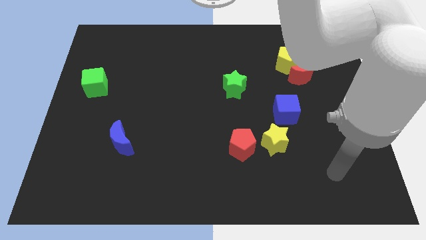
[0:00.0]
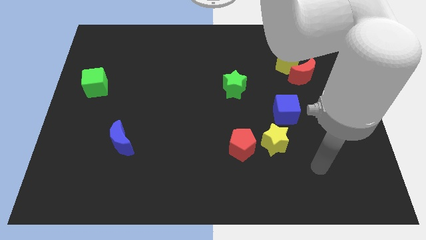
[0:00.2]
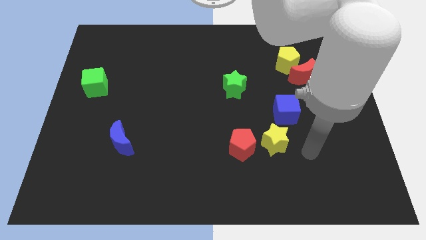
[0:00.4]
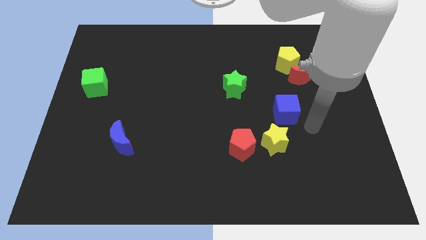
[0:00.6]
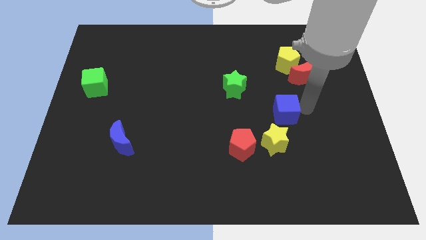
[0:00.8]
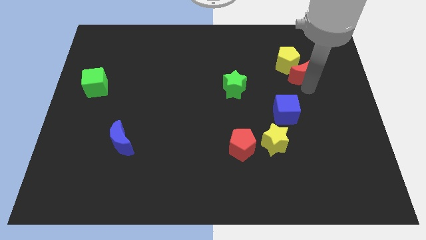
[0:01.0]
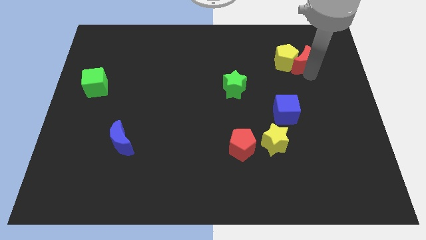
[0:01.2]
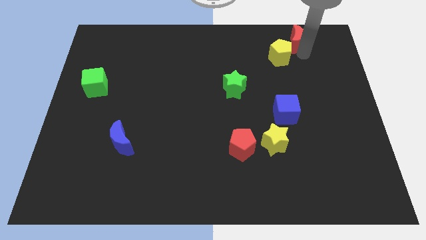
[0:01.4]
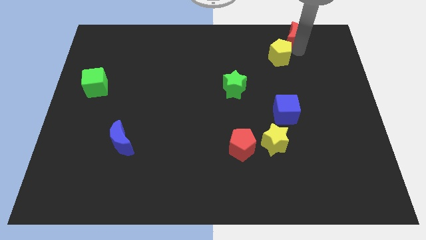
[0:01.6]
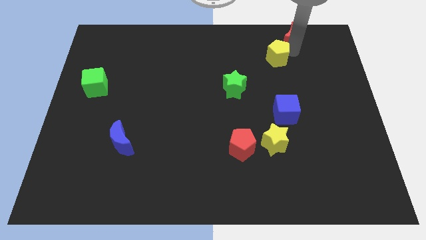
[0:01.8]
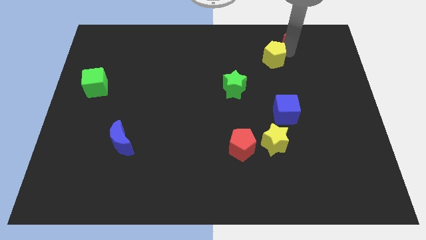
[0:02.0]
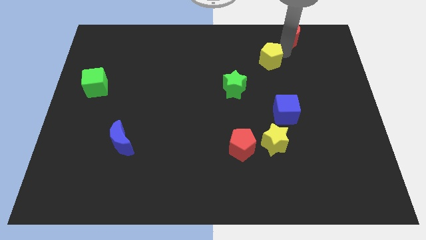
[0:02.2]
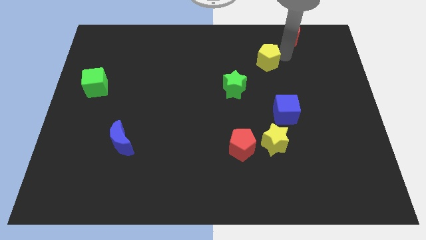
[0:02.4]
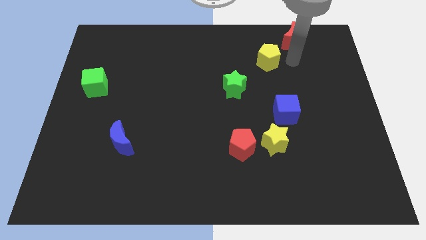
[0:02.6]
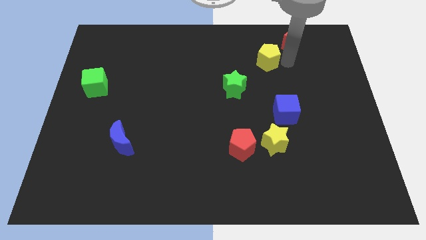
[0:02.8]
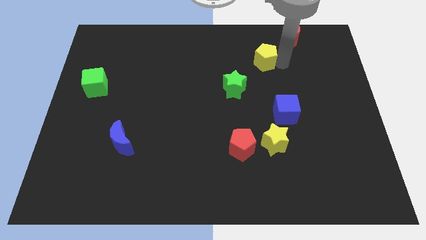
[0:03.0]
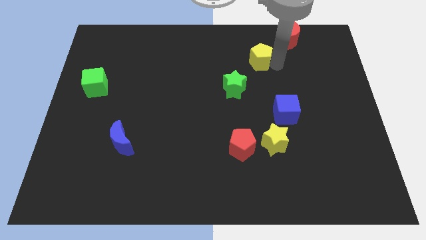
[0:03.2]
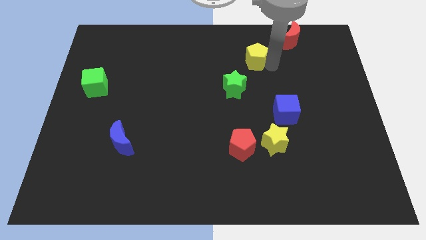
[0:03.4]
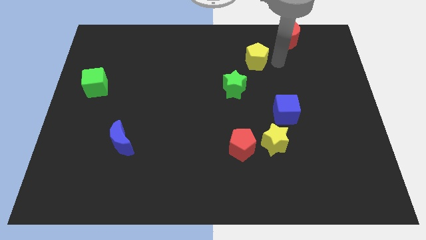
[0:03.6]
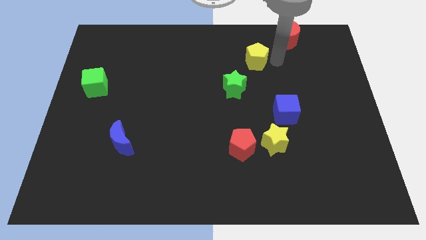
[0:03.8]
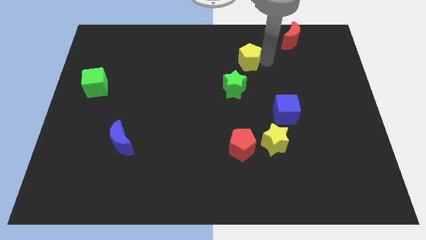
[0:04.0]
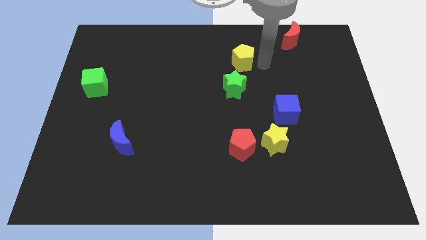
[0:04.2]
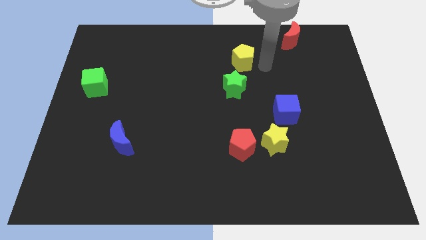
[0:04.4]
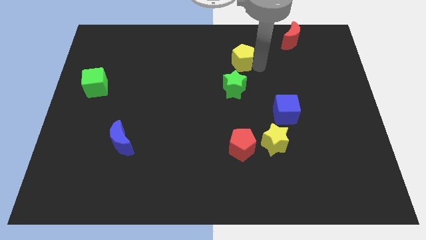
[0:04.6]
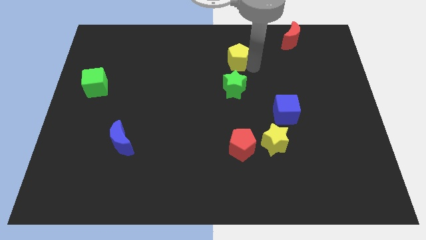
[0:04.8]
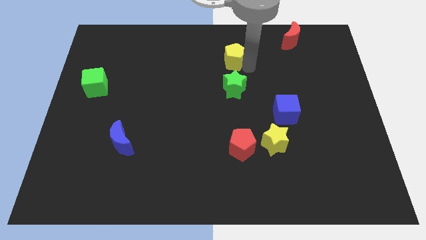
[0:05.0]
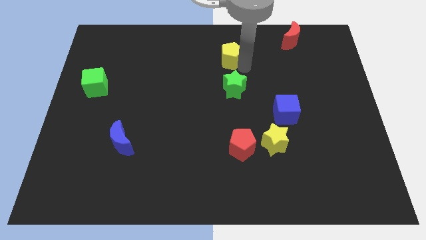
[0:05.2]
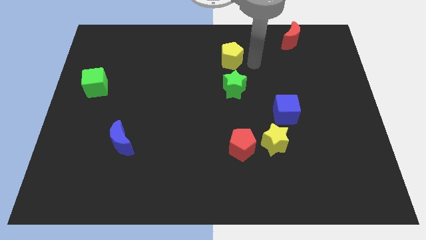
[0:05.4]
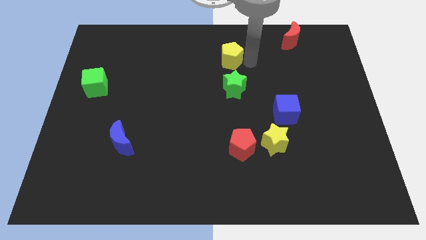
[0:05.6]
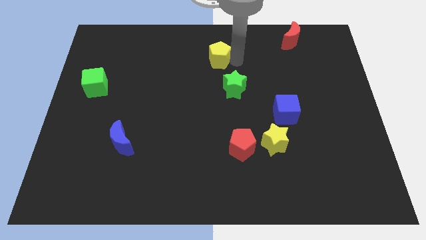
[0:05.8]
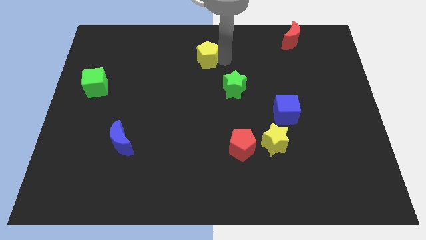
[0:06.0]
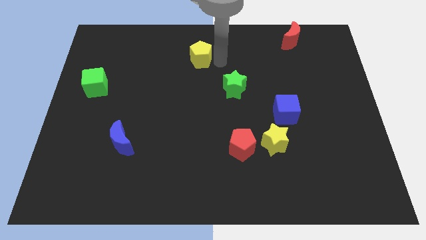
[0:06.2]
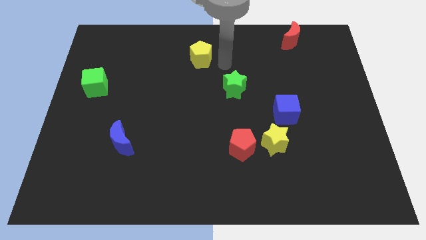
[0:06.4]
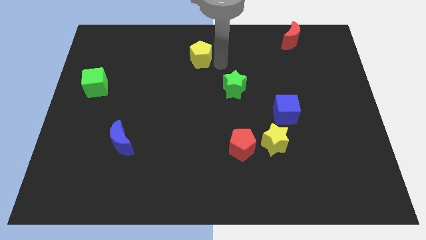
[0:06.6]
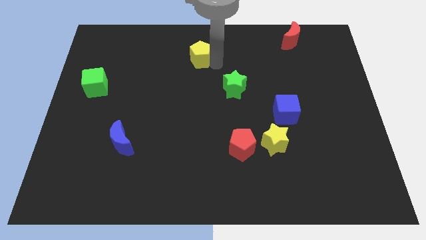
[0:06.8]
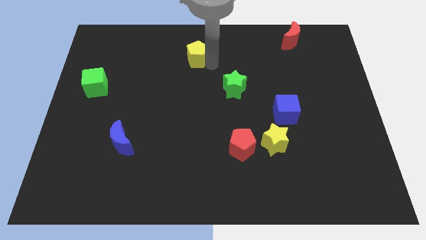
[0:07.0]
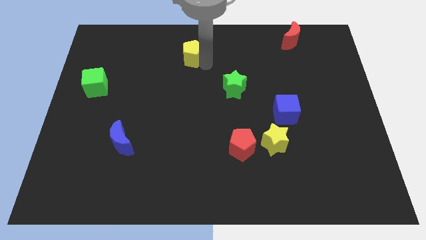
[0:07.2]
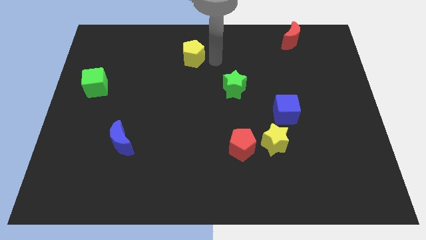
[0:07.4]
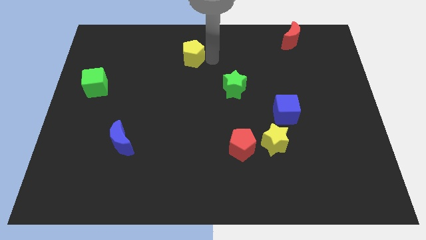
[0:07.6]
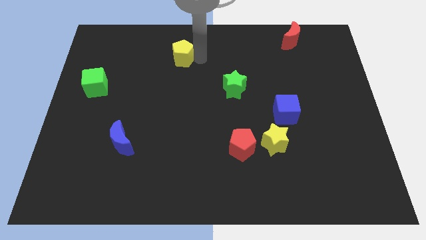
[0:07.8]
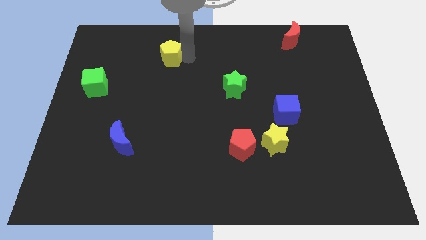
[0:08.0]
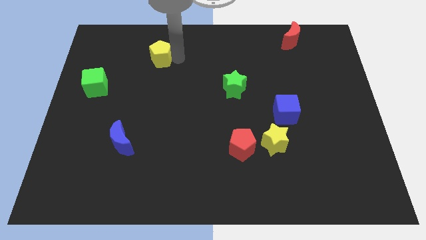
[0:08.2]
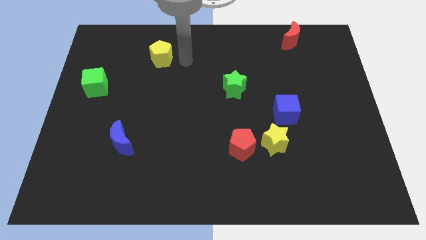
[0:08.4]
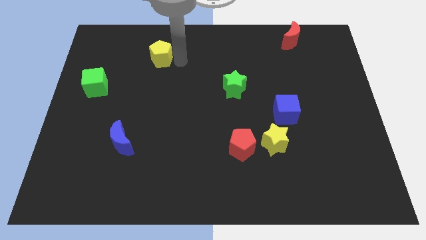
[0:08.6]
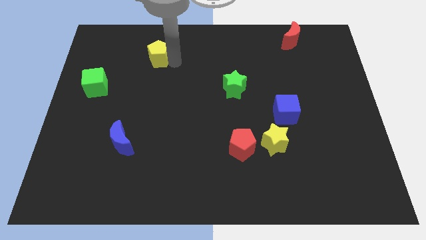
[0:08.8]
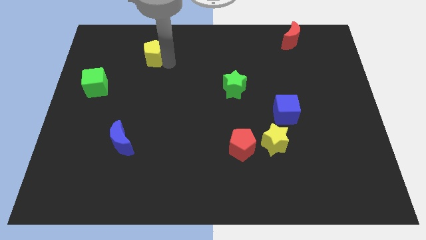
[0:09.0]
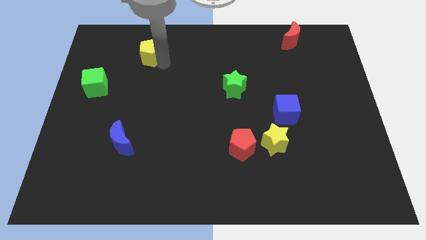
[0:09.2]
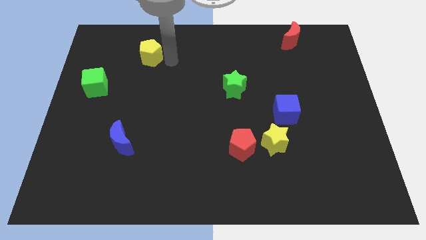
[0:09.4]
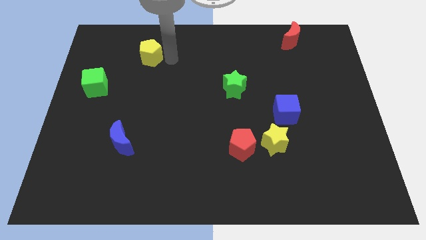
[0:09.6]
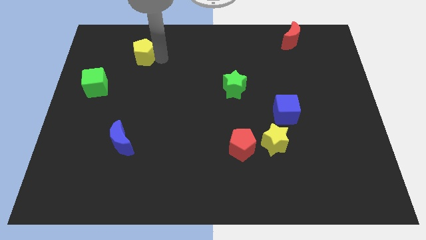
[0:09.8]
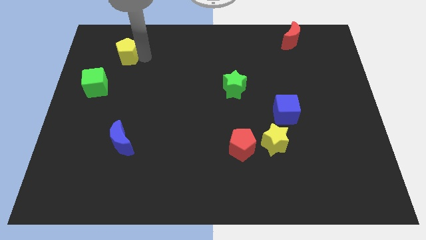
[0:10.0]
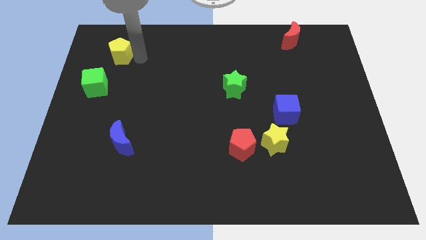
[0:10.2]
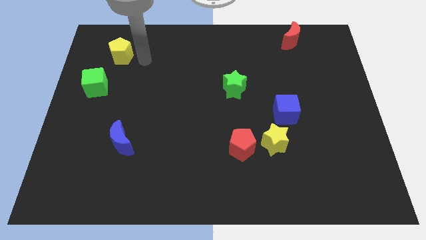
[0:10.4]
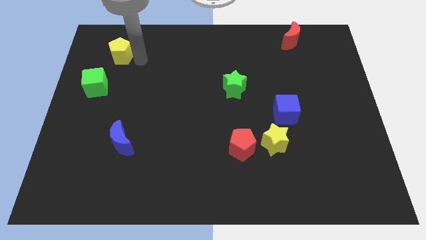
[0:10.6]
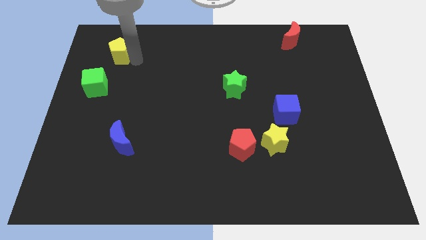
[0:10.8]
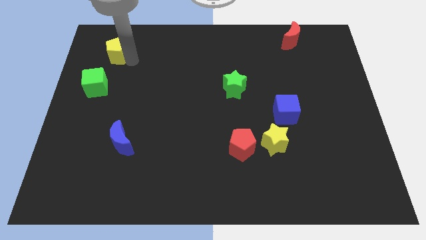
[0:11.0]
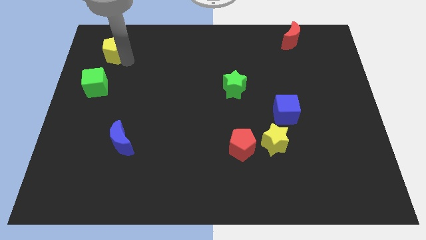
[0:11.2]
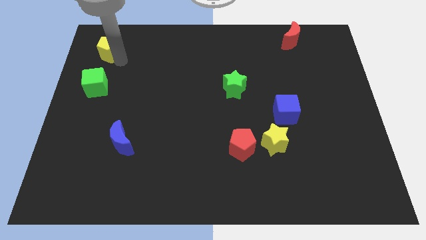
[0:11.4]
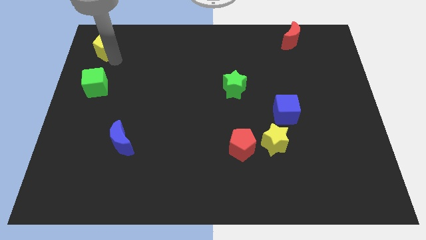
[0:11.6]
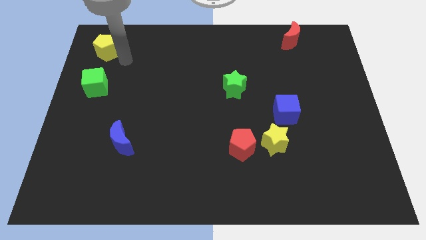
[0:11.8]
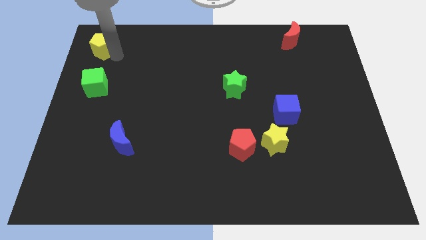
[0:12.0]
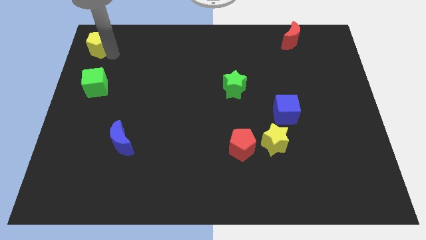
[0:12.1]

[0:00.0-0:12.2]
slide the yellow pentagon to the top left of the board
